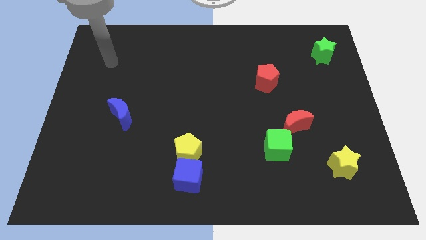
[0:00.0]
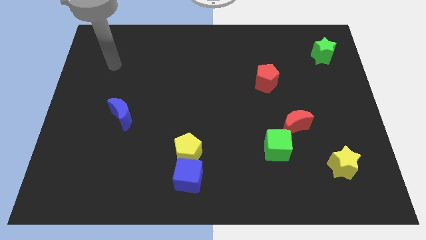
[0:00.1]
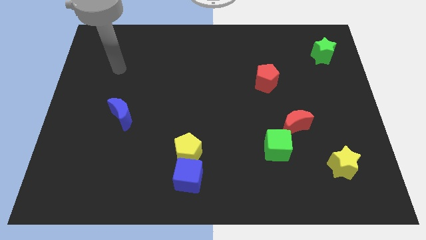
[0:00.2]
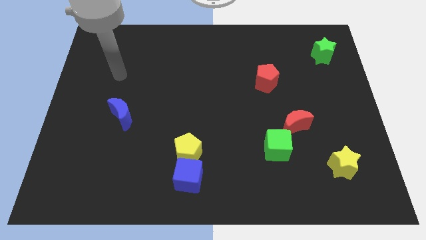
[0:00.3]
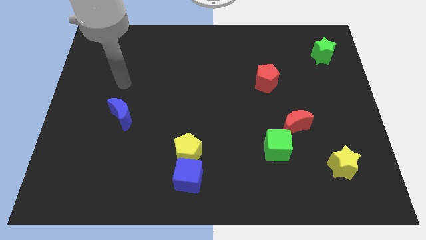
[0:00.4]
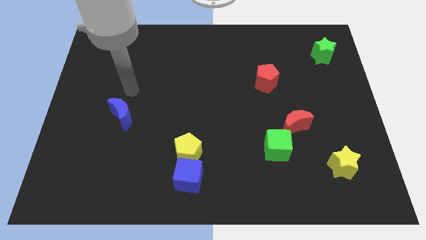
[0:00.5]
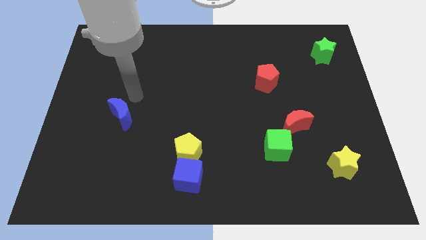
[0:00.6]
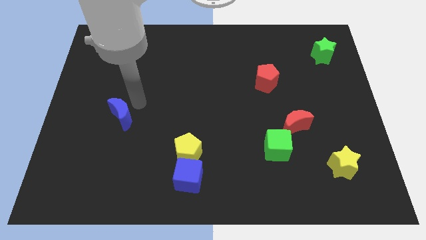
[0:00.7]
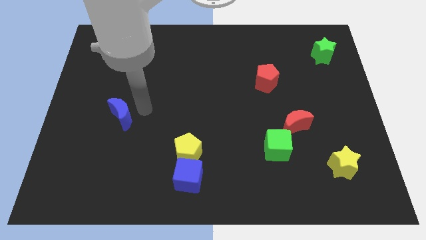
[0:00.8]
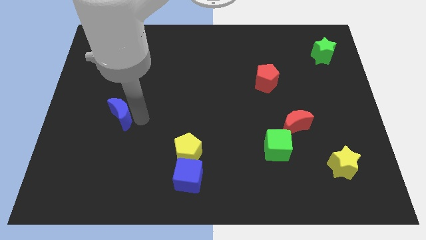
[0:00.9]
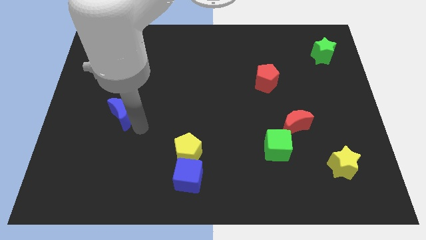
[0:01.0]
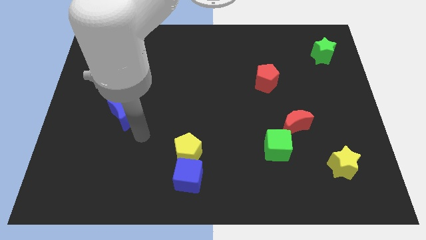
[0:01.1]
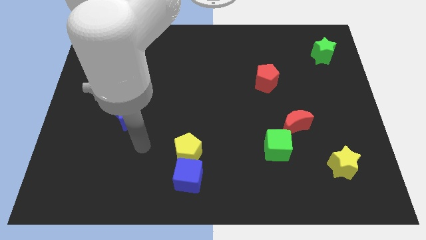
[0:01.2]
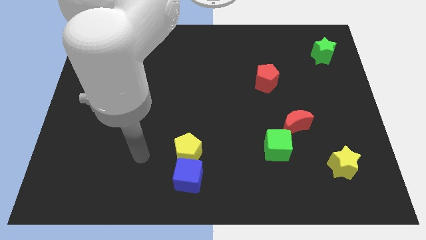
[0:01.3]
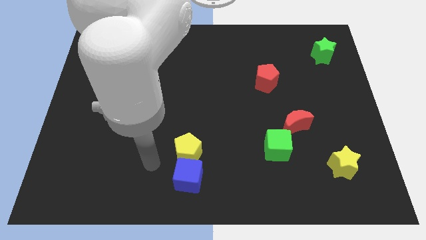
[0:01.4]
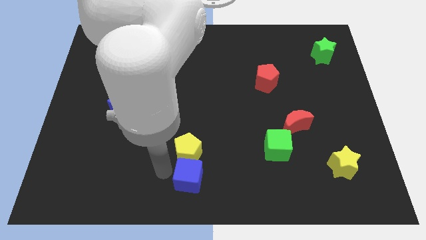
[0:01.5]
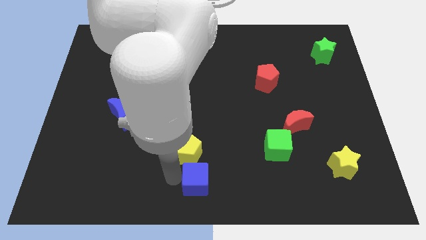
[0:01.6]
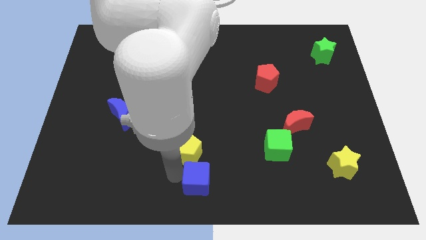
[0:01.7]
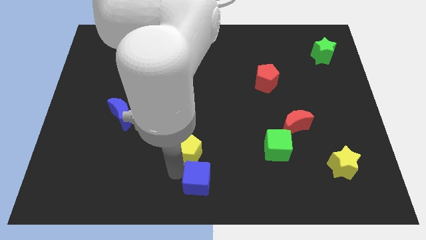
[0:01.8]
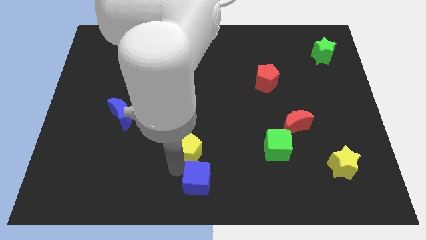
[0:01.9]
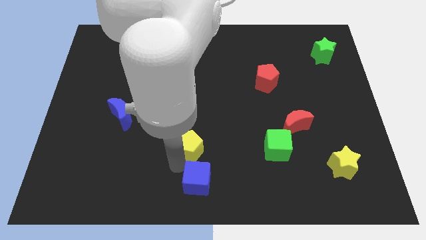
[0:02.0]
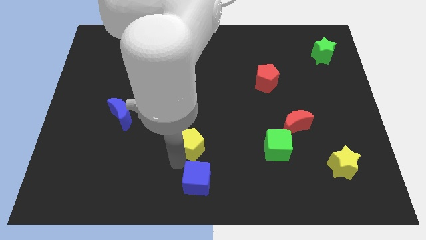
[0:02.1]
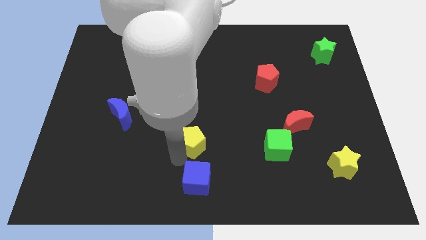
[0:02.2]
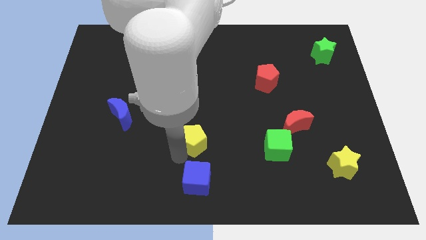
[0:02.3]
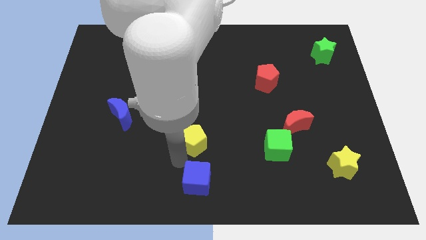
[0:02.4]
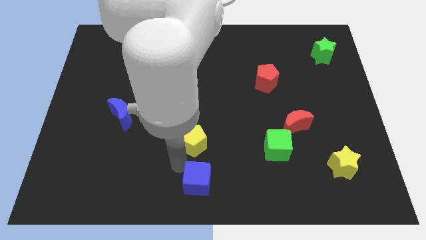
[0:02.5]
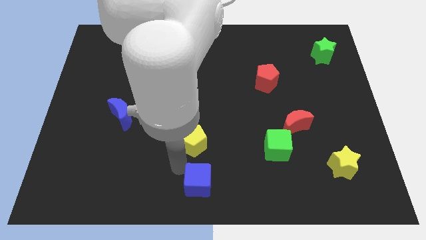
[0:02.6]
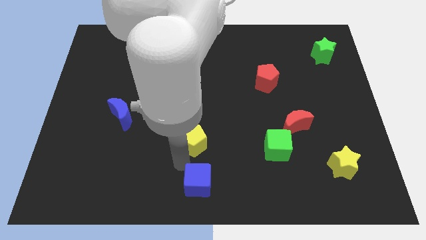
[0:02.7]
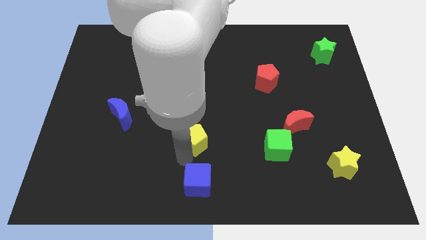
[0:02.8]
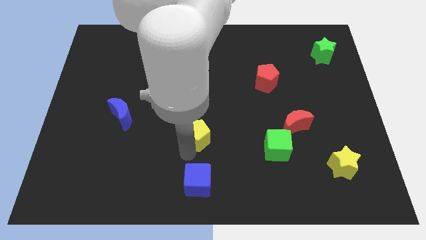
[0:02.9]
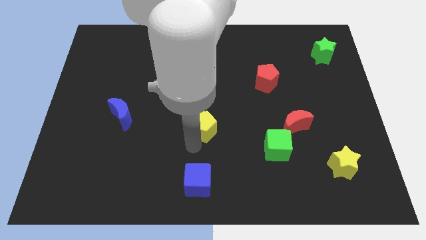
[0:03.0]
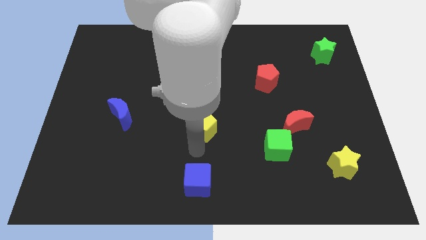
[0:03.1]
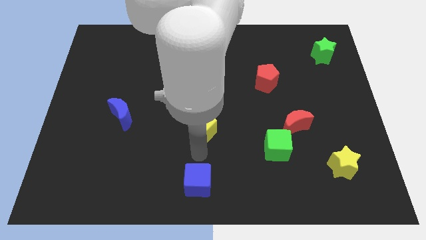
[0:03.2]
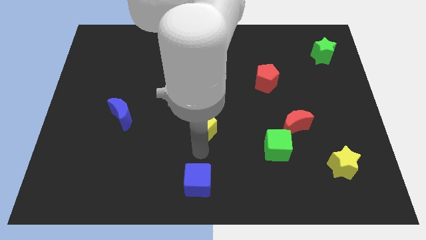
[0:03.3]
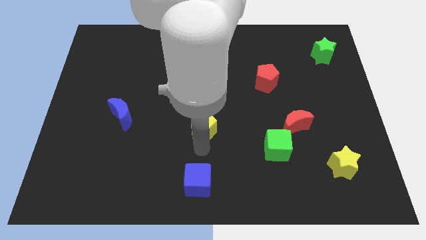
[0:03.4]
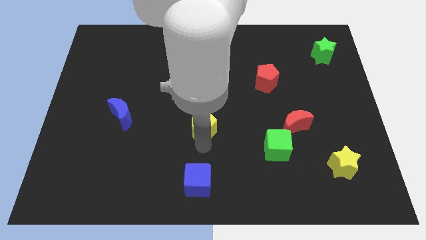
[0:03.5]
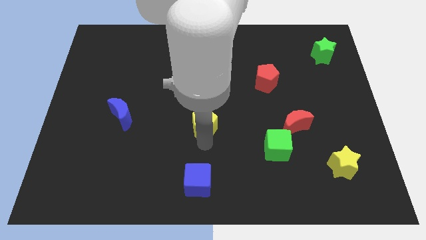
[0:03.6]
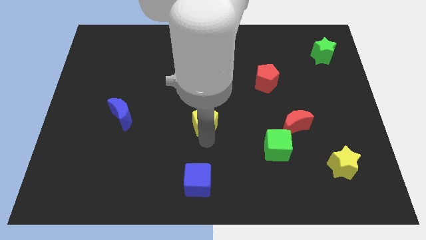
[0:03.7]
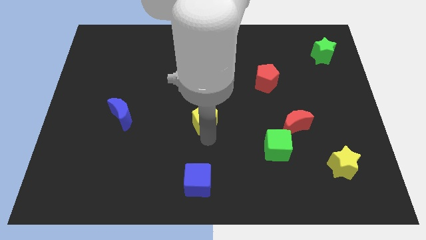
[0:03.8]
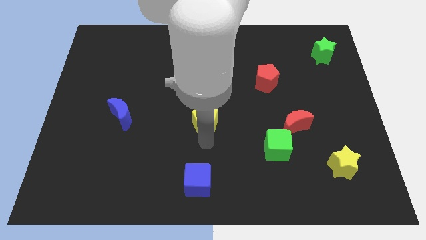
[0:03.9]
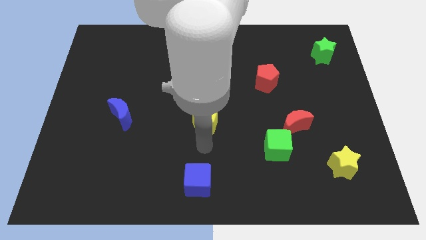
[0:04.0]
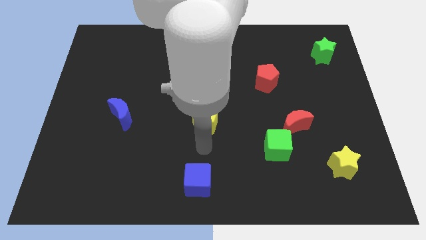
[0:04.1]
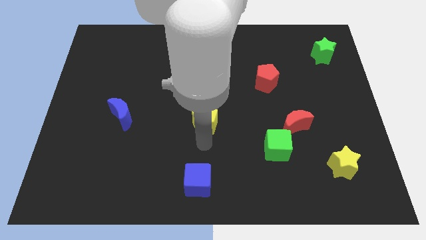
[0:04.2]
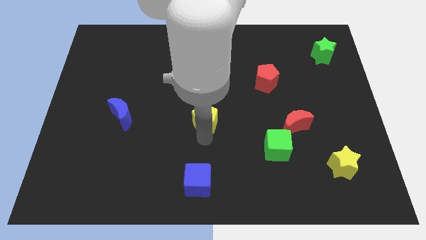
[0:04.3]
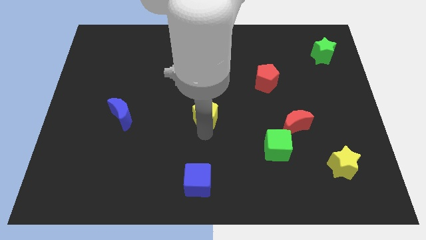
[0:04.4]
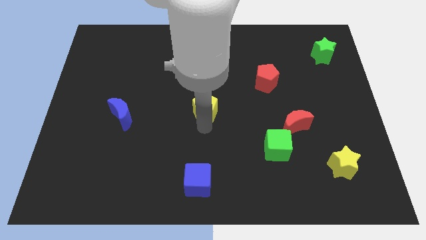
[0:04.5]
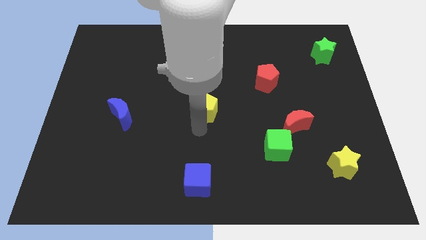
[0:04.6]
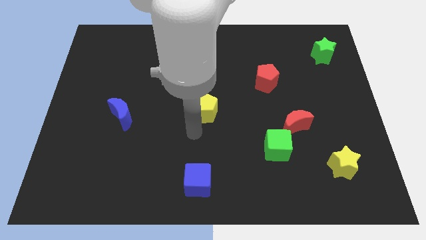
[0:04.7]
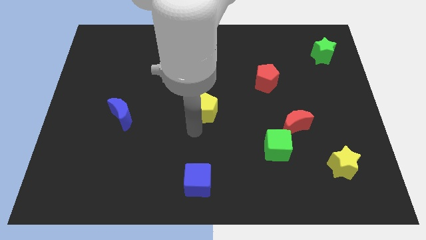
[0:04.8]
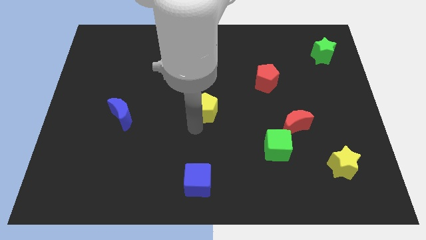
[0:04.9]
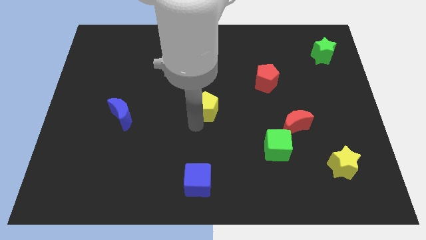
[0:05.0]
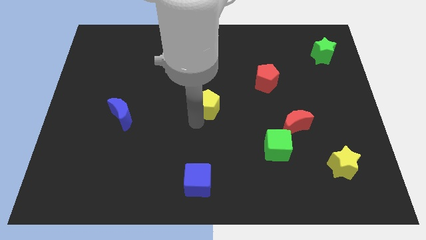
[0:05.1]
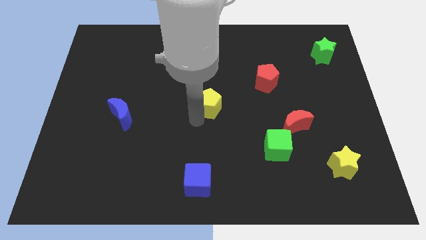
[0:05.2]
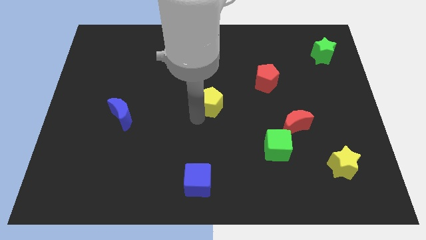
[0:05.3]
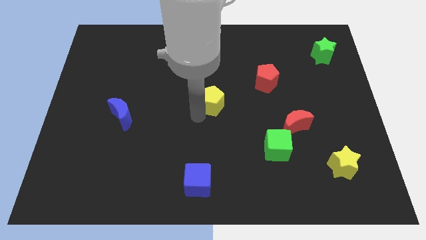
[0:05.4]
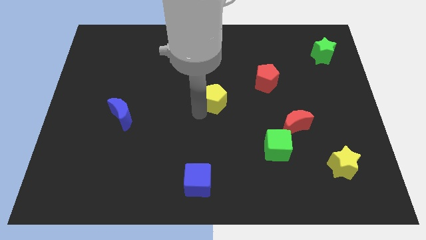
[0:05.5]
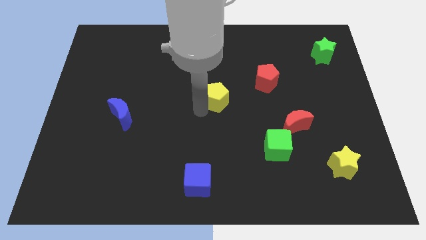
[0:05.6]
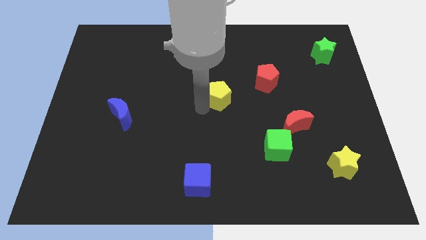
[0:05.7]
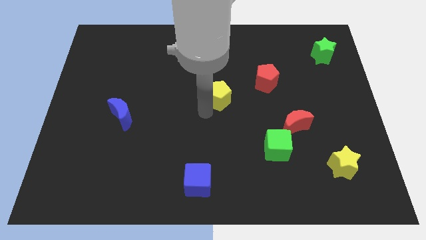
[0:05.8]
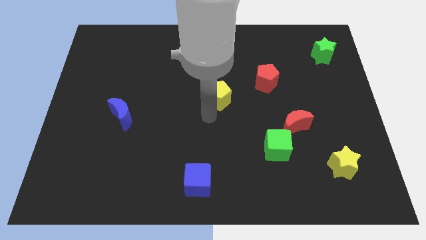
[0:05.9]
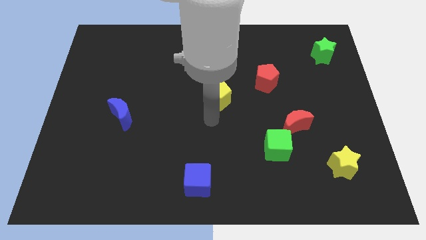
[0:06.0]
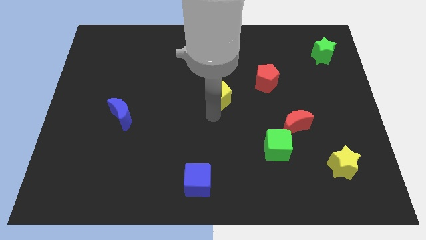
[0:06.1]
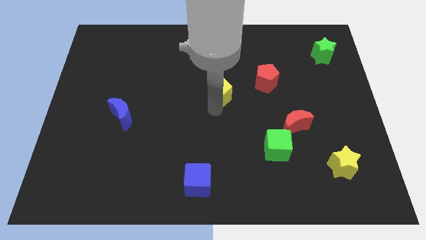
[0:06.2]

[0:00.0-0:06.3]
put the yellow pentagon to the left side of the red pentagon

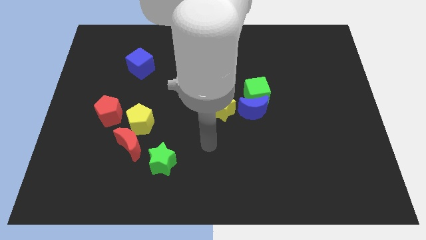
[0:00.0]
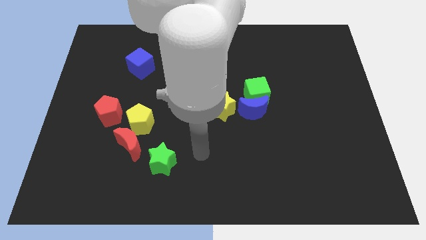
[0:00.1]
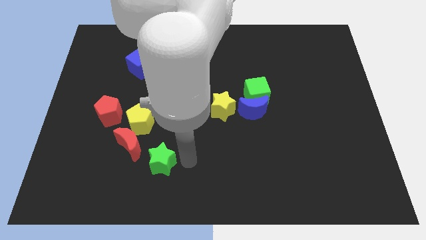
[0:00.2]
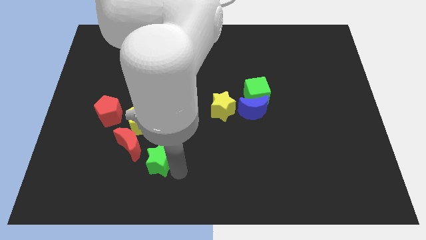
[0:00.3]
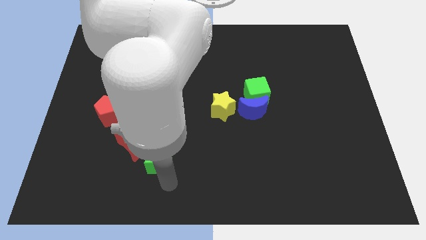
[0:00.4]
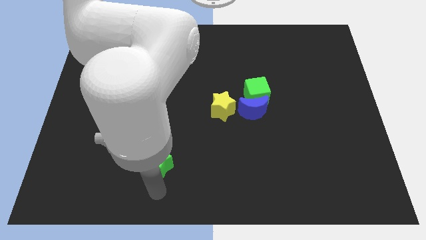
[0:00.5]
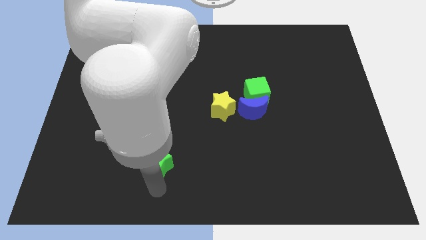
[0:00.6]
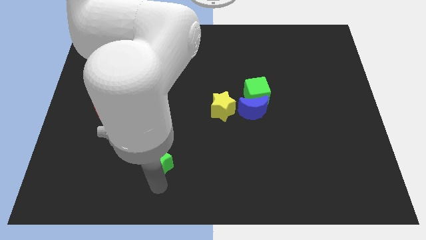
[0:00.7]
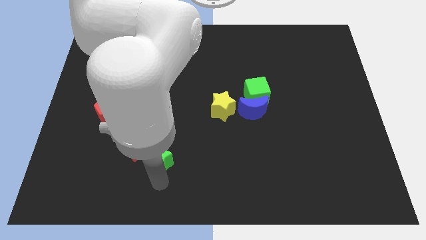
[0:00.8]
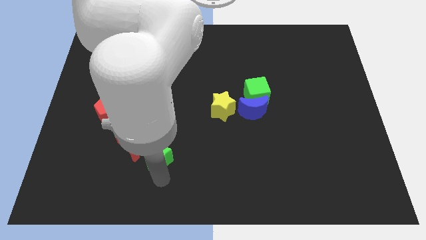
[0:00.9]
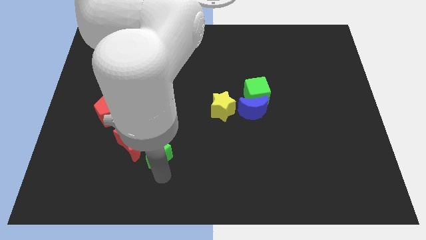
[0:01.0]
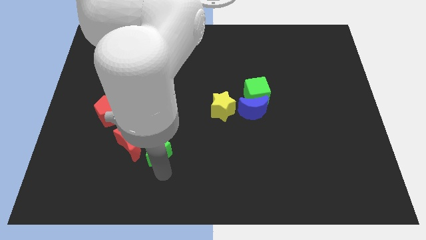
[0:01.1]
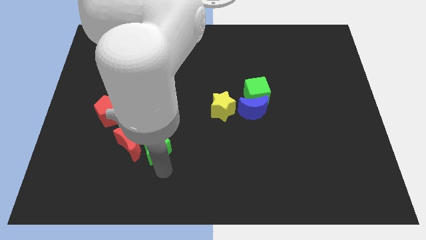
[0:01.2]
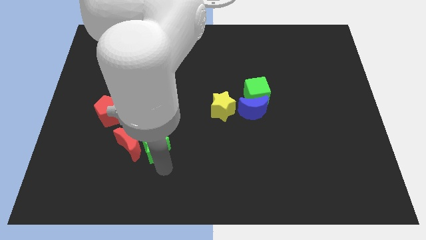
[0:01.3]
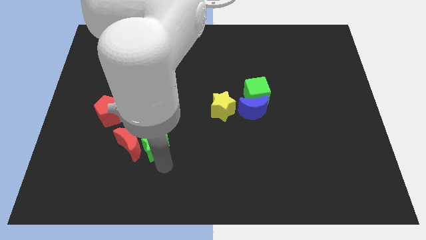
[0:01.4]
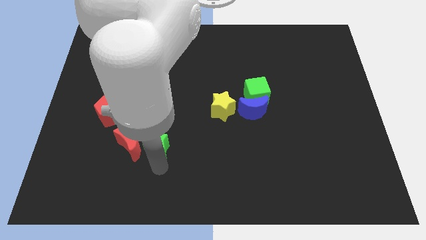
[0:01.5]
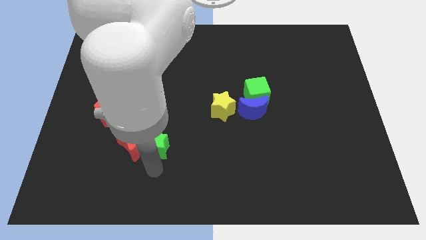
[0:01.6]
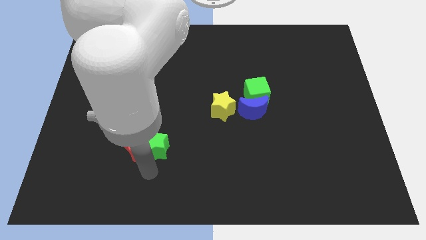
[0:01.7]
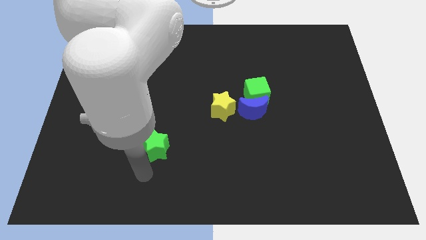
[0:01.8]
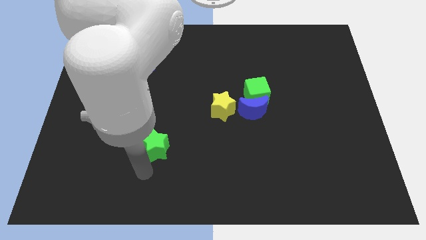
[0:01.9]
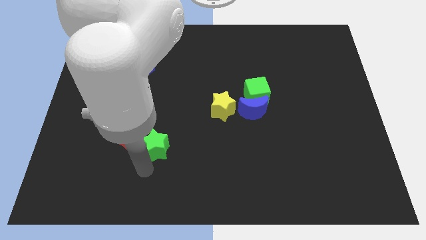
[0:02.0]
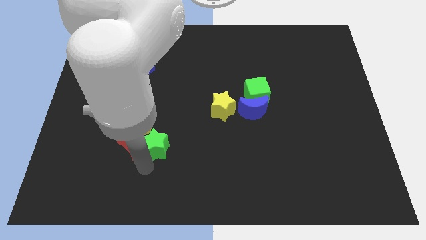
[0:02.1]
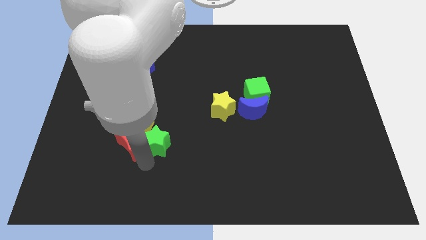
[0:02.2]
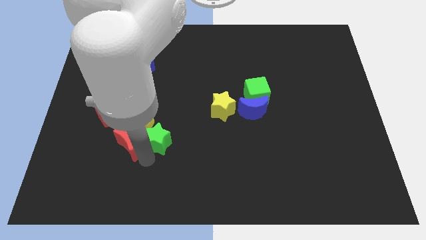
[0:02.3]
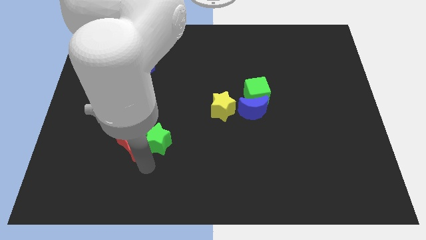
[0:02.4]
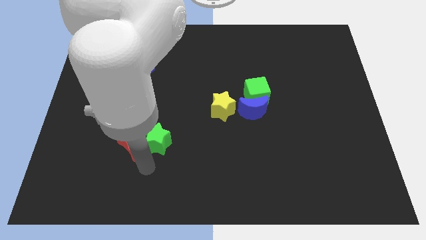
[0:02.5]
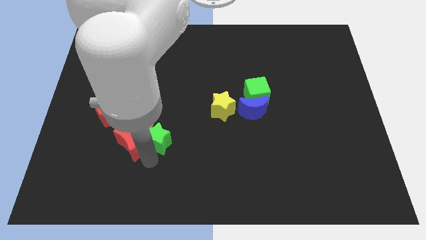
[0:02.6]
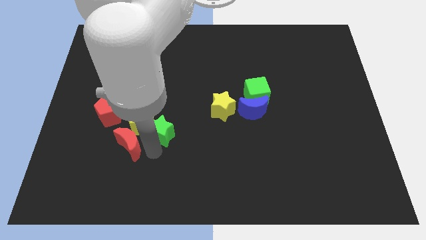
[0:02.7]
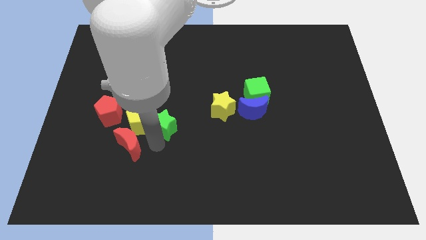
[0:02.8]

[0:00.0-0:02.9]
slide the green star to the right of the red pentagon
